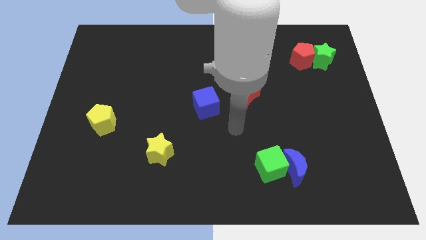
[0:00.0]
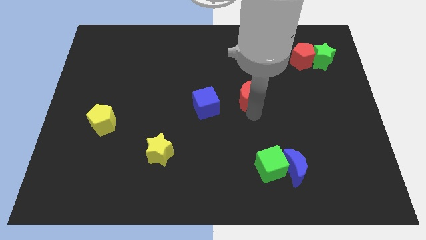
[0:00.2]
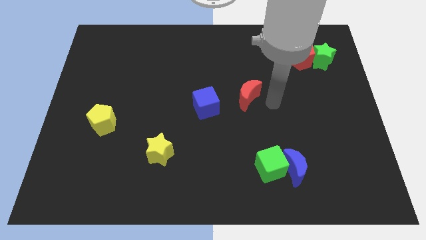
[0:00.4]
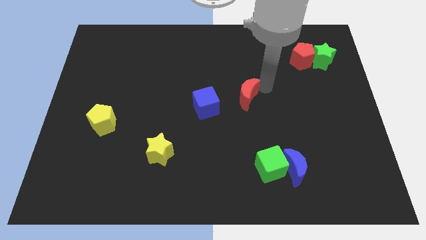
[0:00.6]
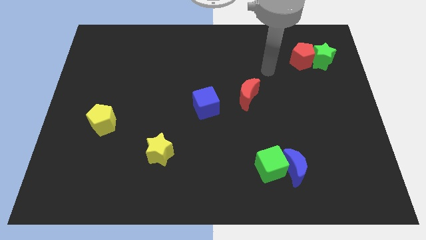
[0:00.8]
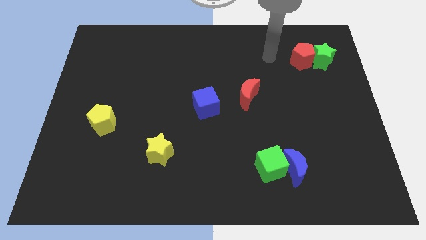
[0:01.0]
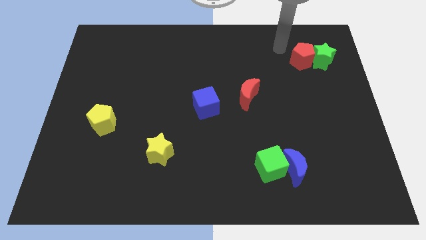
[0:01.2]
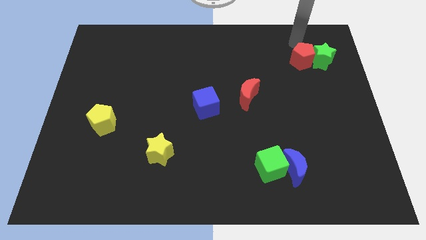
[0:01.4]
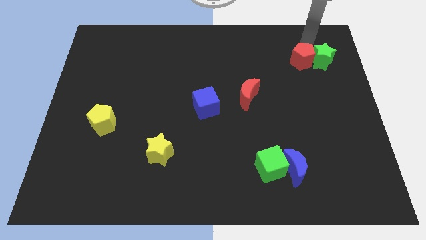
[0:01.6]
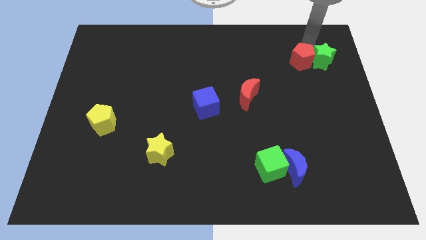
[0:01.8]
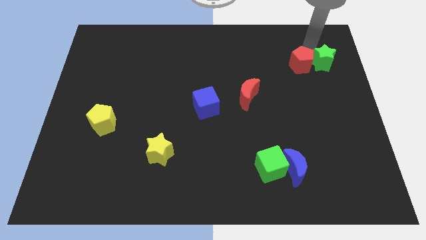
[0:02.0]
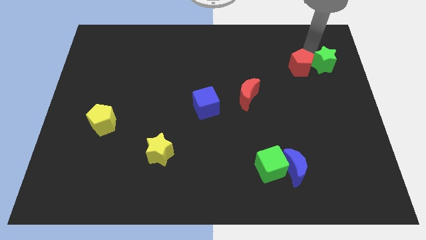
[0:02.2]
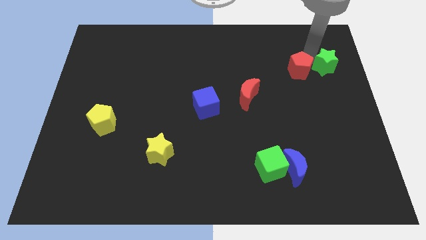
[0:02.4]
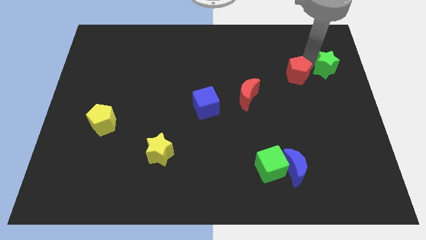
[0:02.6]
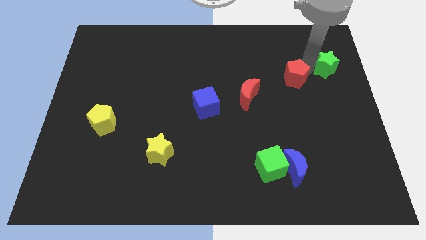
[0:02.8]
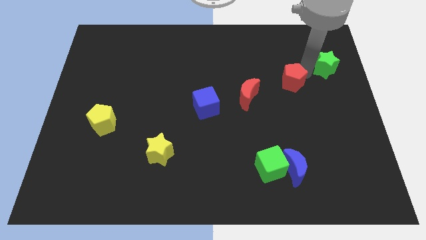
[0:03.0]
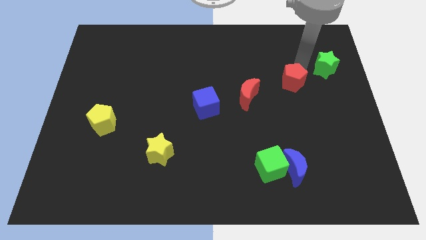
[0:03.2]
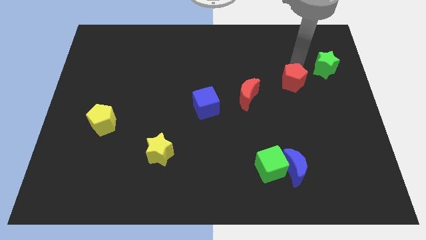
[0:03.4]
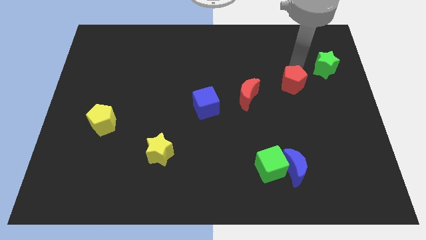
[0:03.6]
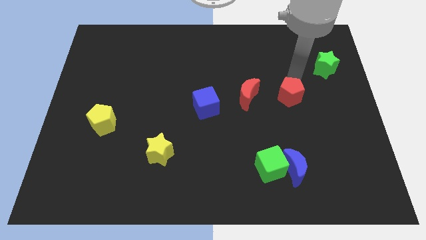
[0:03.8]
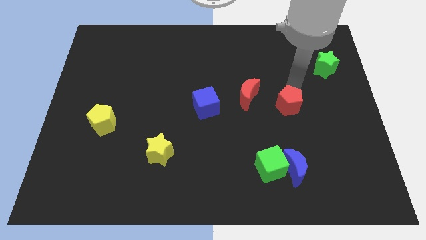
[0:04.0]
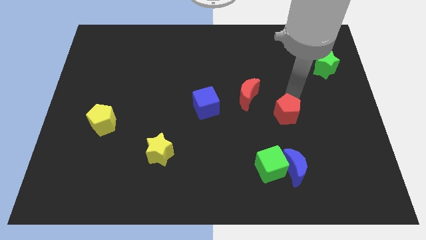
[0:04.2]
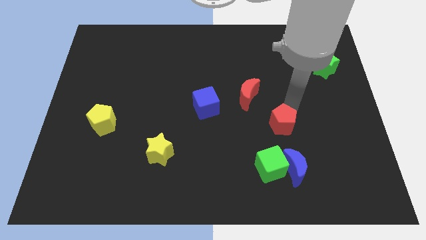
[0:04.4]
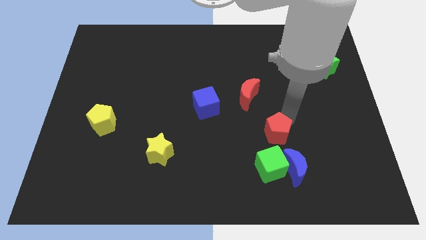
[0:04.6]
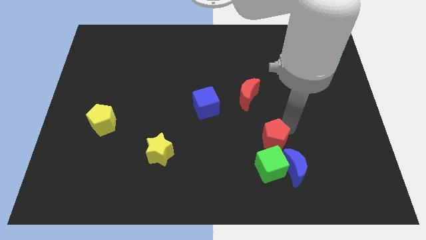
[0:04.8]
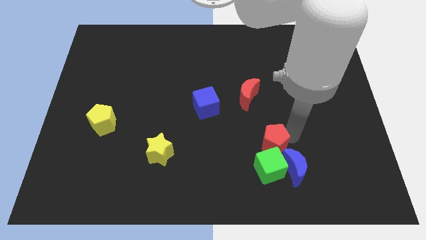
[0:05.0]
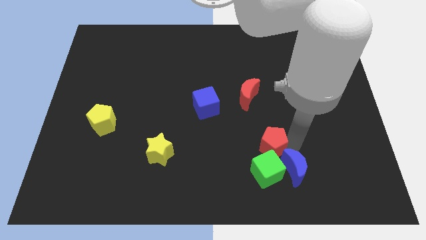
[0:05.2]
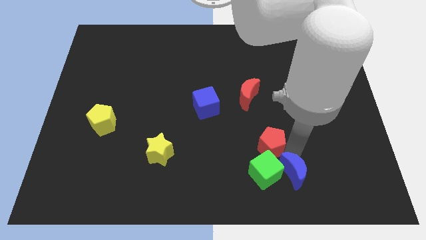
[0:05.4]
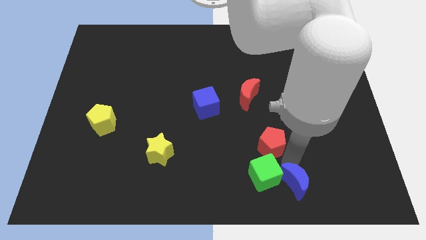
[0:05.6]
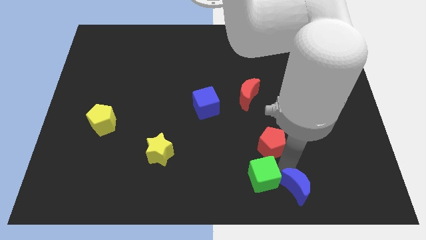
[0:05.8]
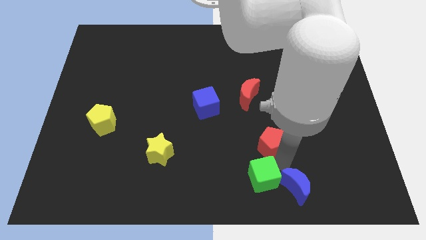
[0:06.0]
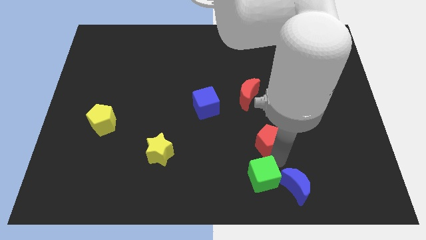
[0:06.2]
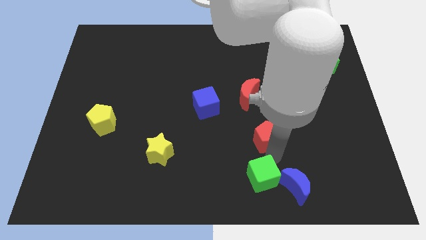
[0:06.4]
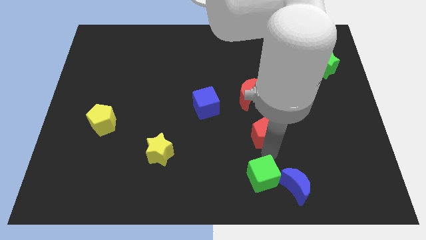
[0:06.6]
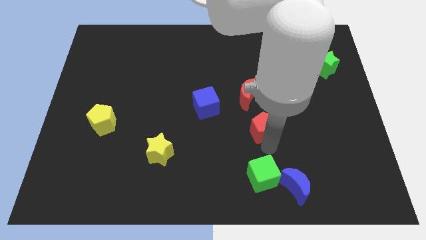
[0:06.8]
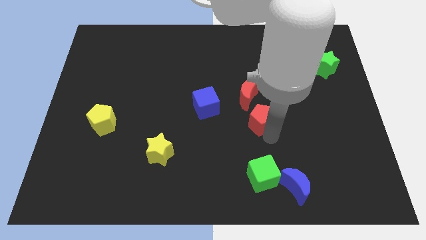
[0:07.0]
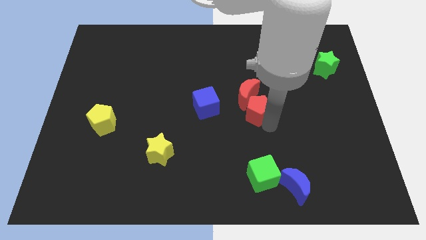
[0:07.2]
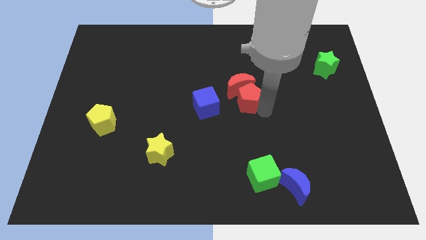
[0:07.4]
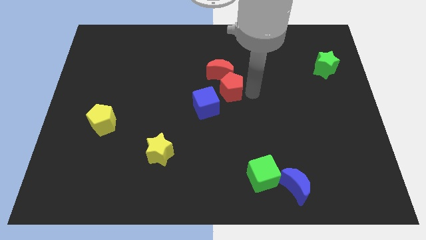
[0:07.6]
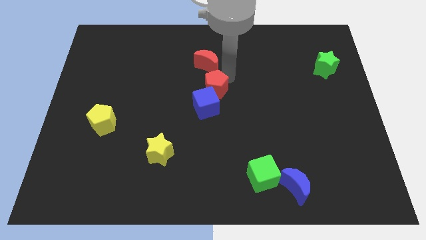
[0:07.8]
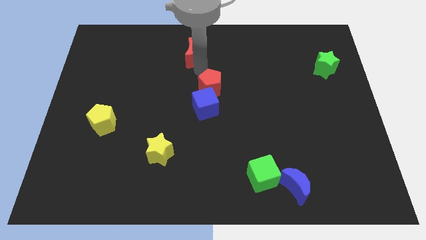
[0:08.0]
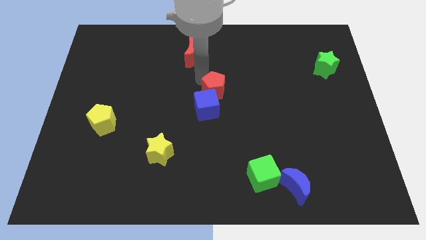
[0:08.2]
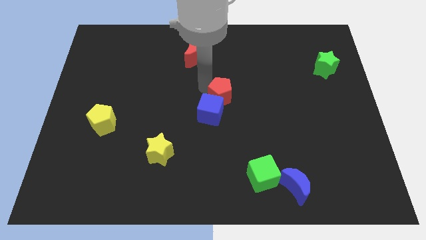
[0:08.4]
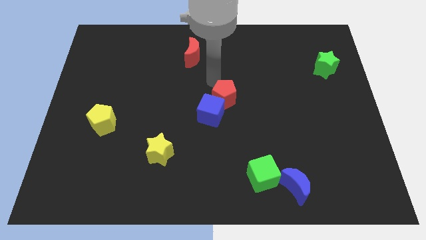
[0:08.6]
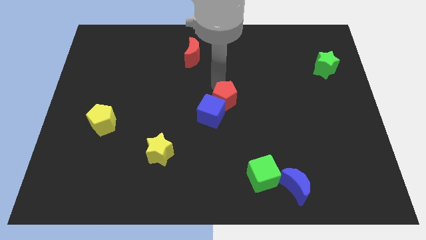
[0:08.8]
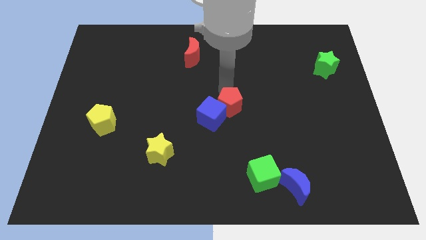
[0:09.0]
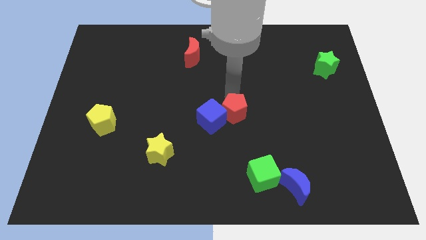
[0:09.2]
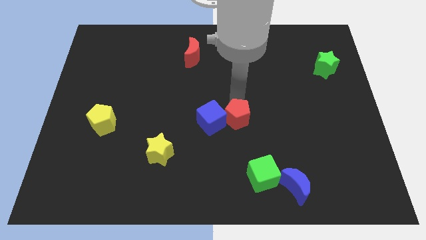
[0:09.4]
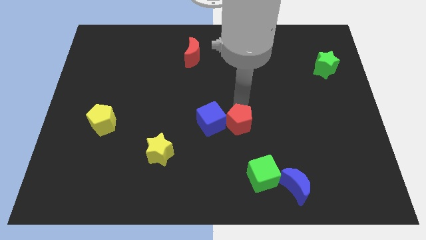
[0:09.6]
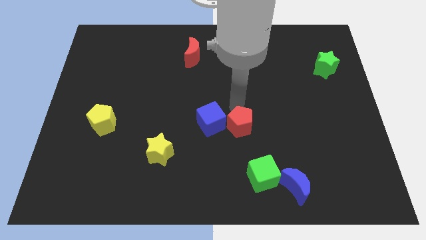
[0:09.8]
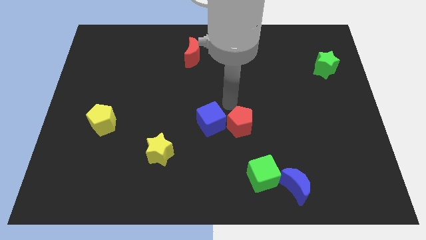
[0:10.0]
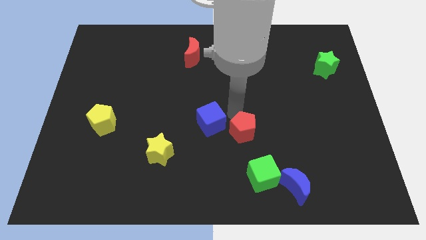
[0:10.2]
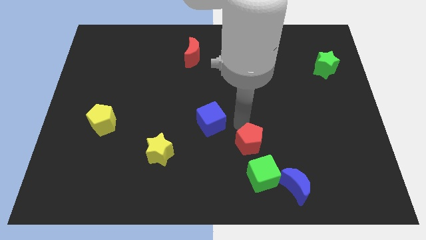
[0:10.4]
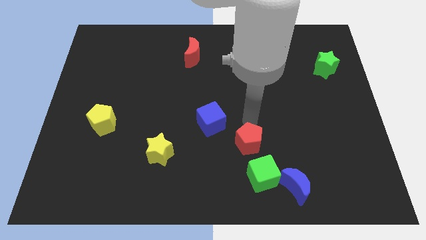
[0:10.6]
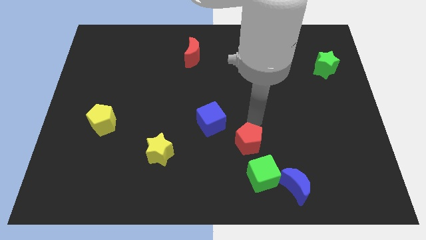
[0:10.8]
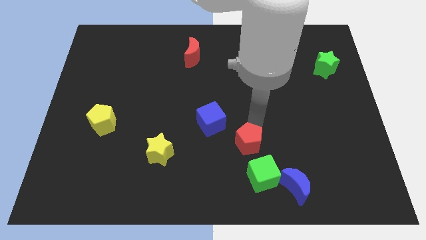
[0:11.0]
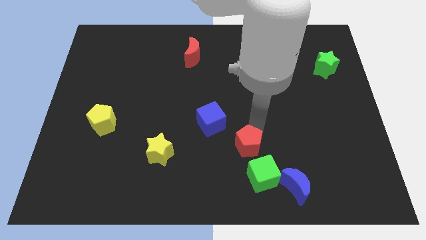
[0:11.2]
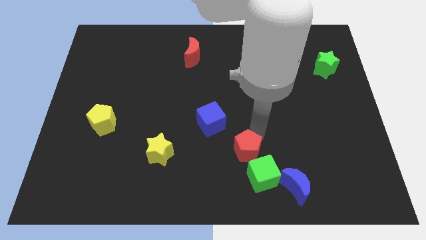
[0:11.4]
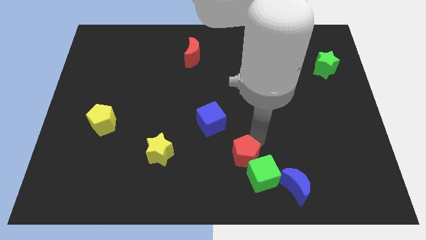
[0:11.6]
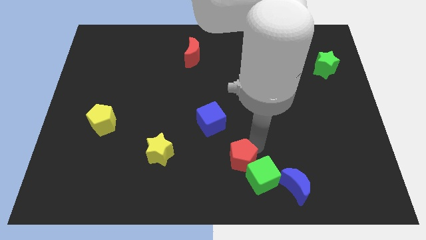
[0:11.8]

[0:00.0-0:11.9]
slide the red pentagon to the bottom side
